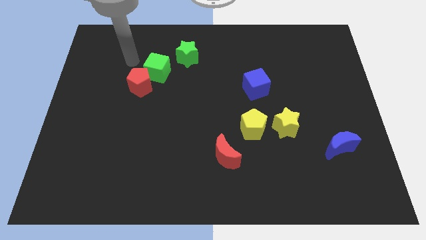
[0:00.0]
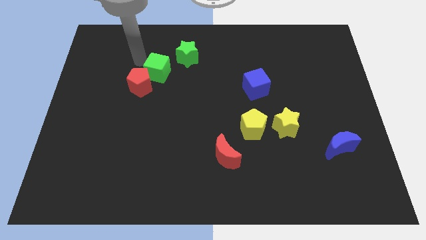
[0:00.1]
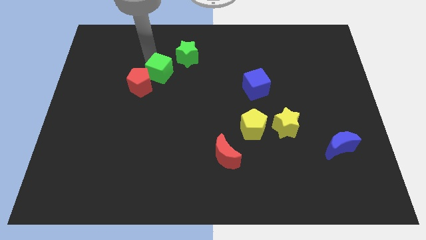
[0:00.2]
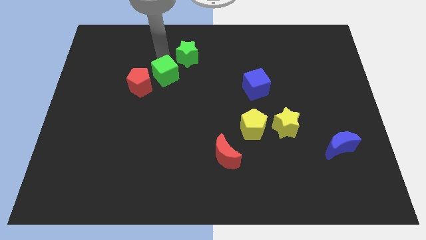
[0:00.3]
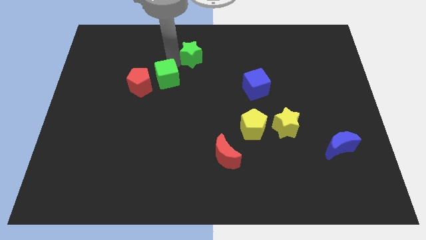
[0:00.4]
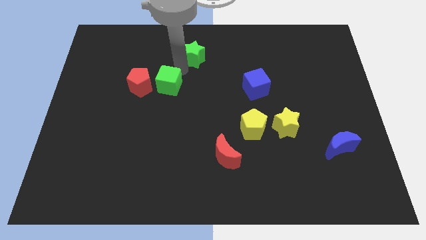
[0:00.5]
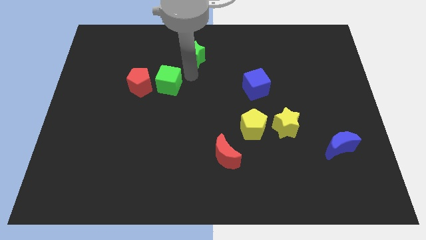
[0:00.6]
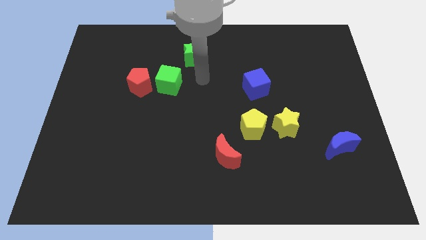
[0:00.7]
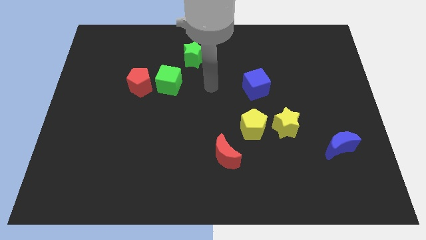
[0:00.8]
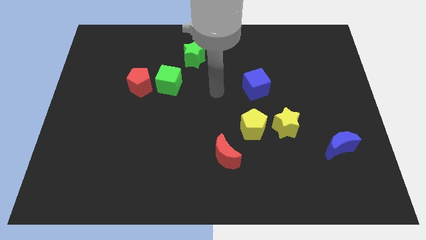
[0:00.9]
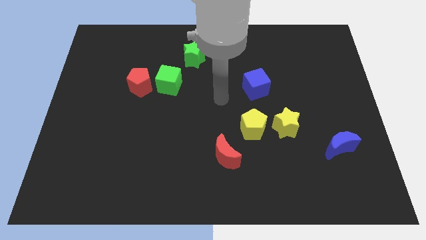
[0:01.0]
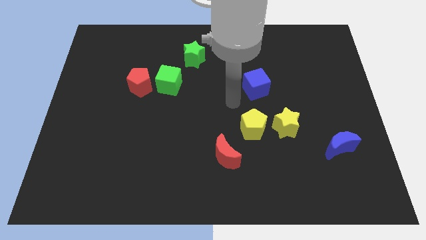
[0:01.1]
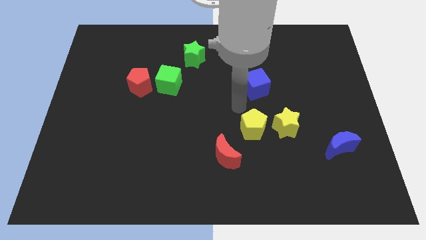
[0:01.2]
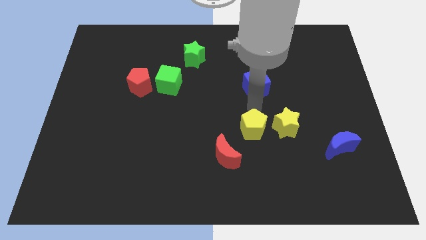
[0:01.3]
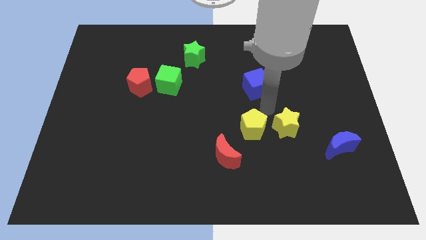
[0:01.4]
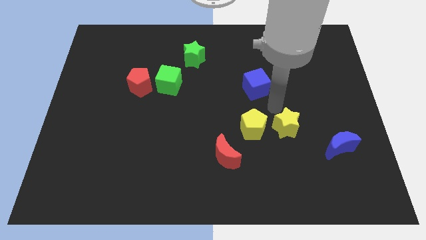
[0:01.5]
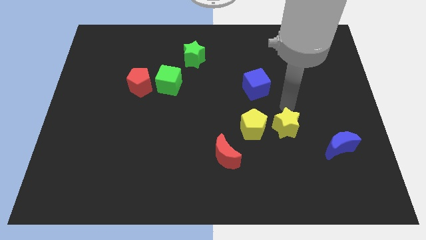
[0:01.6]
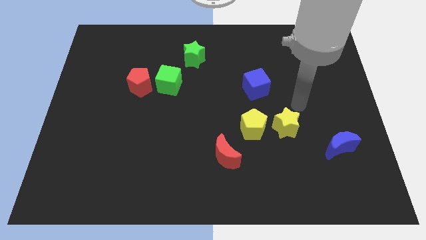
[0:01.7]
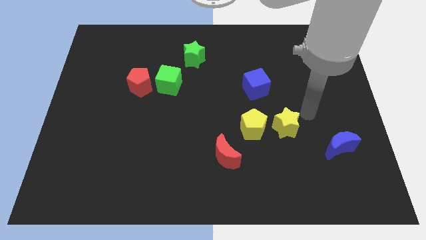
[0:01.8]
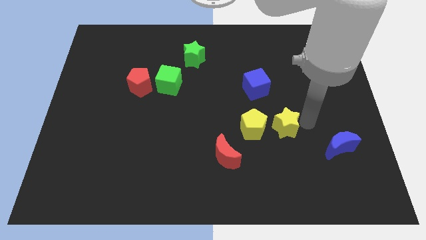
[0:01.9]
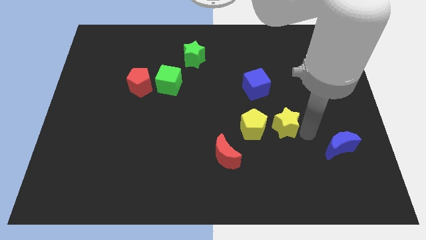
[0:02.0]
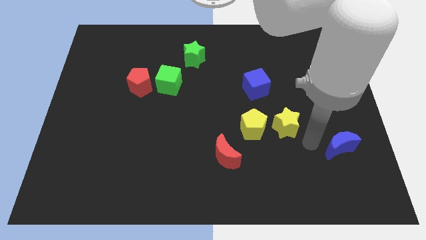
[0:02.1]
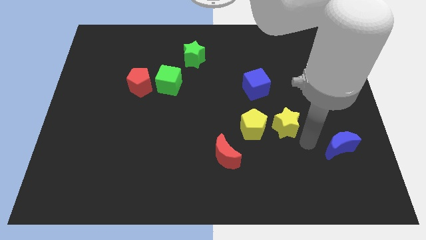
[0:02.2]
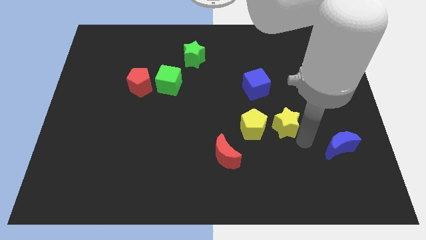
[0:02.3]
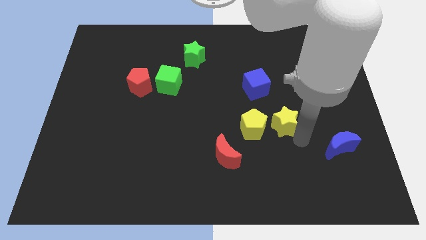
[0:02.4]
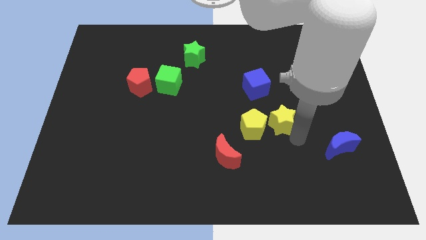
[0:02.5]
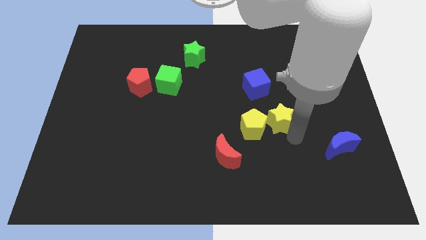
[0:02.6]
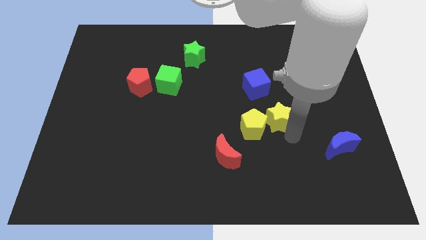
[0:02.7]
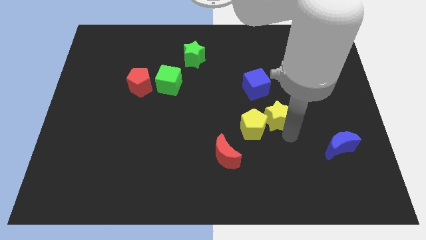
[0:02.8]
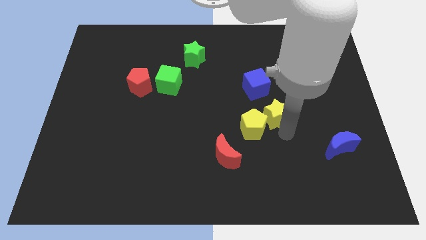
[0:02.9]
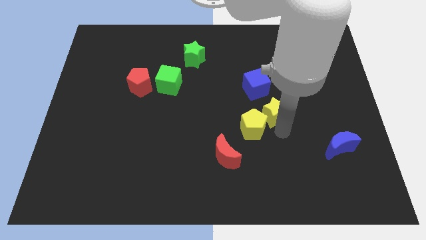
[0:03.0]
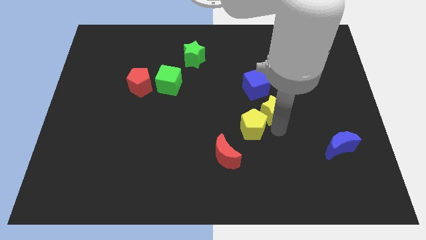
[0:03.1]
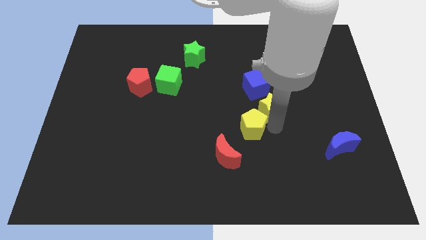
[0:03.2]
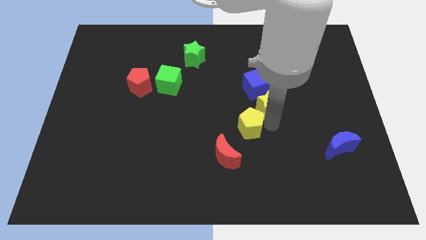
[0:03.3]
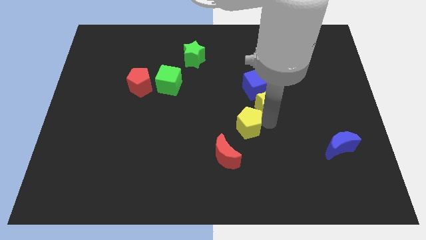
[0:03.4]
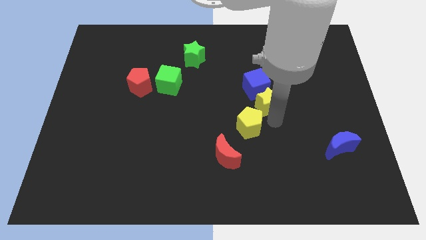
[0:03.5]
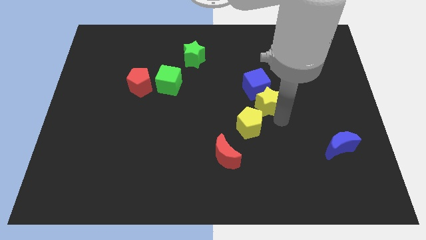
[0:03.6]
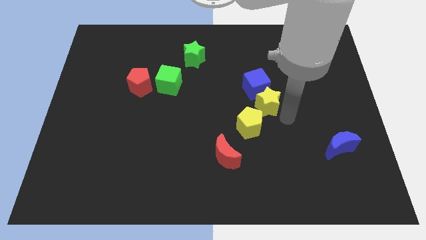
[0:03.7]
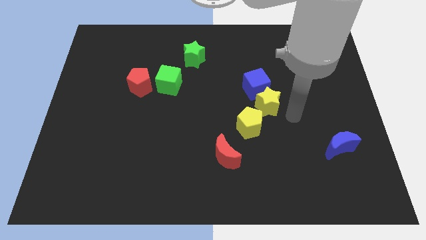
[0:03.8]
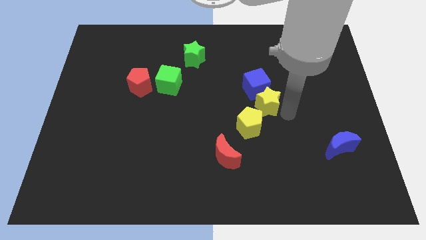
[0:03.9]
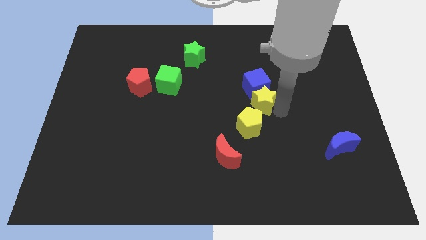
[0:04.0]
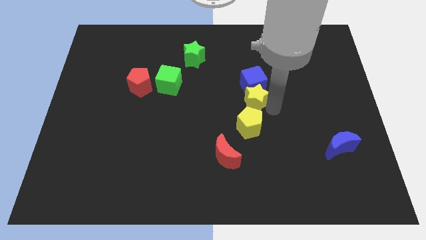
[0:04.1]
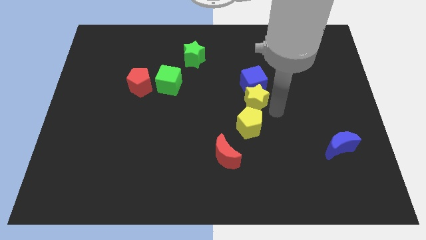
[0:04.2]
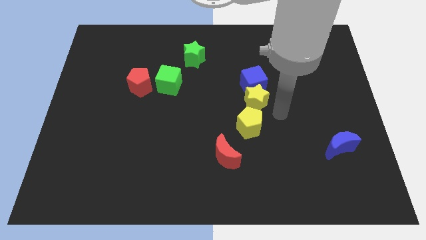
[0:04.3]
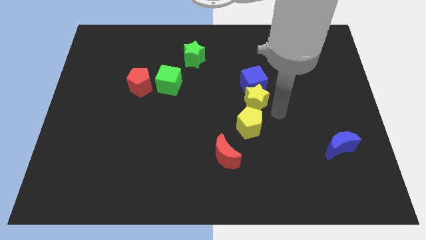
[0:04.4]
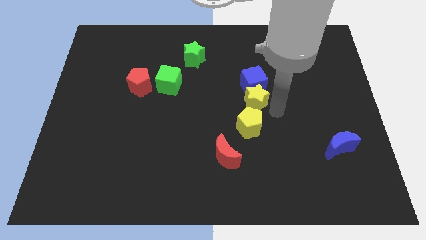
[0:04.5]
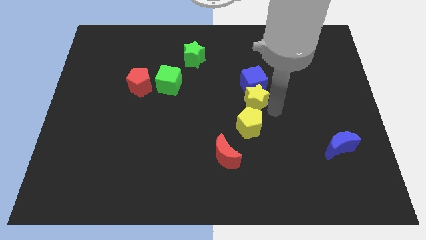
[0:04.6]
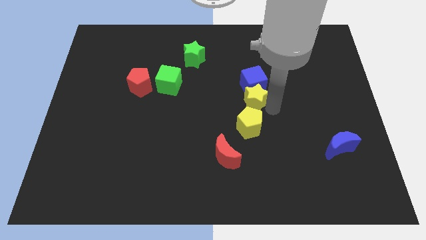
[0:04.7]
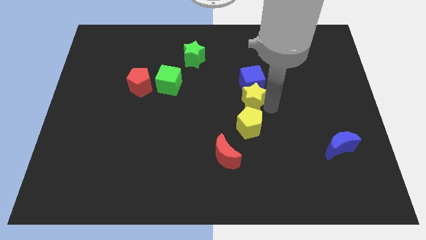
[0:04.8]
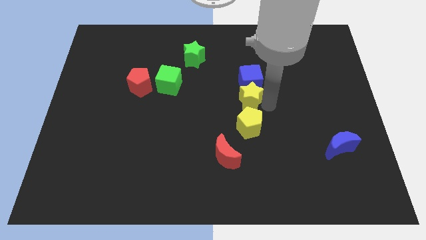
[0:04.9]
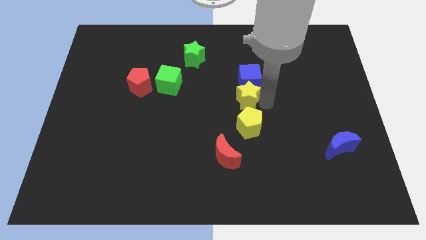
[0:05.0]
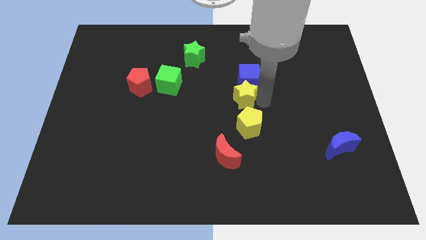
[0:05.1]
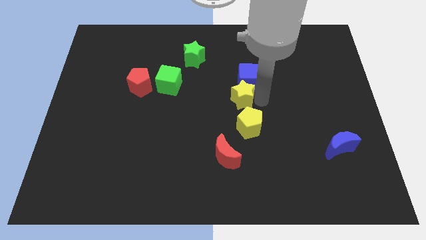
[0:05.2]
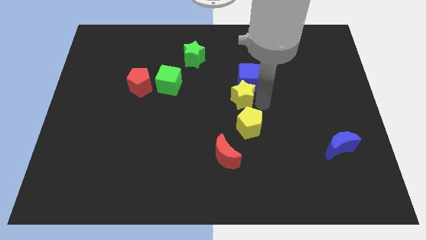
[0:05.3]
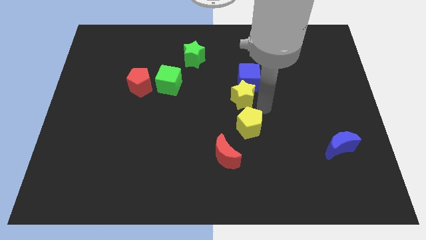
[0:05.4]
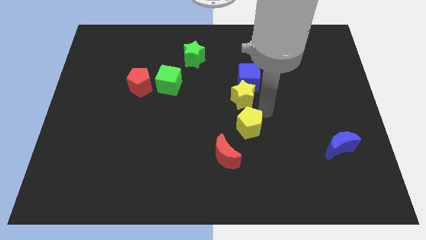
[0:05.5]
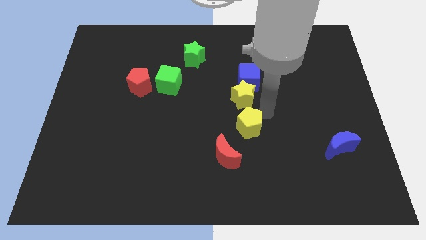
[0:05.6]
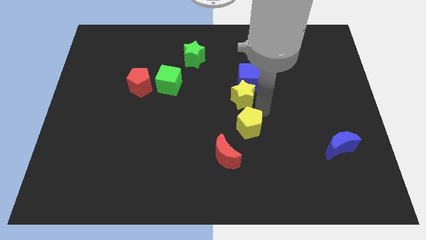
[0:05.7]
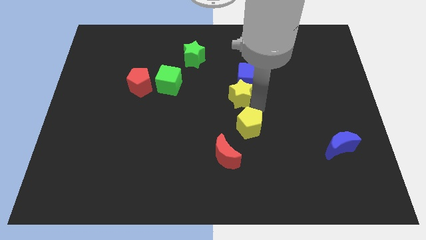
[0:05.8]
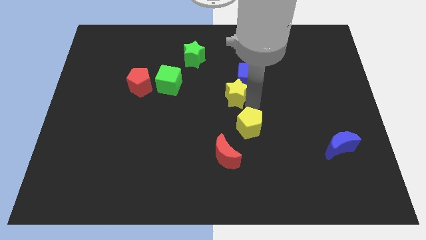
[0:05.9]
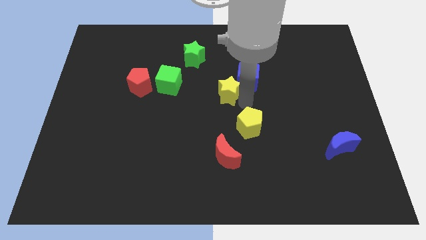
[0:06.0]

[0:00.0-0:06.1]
push the yellow star right of the green cube
